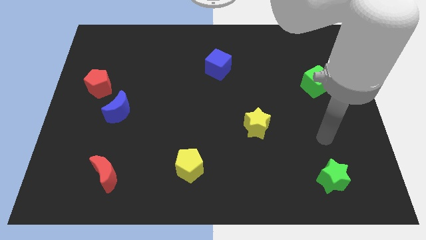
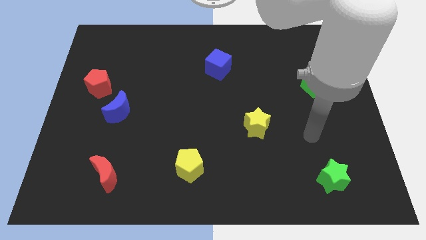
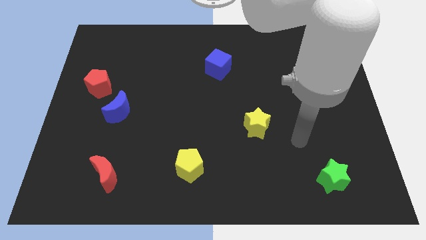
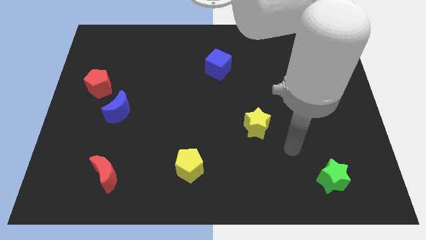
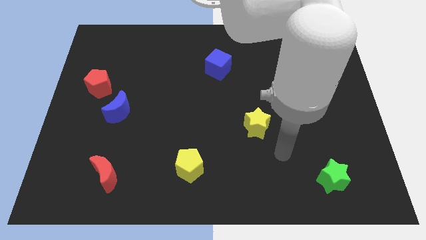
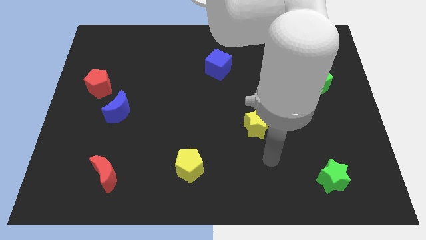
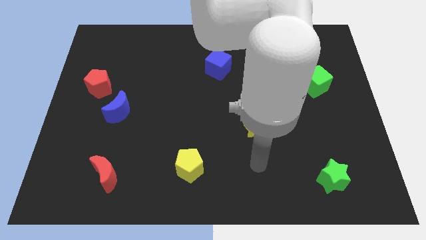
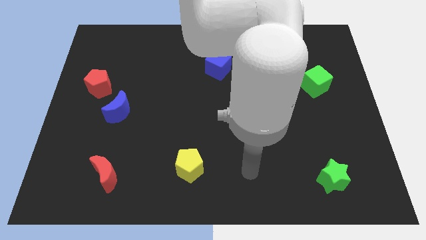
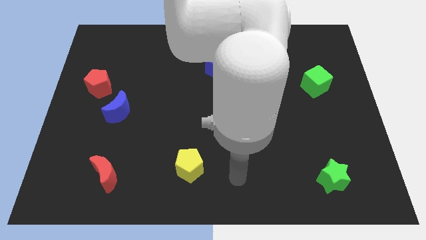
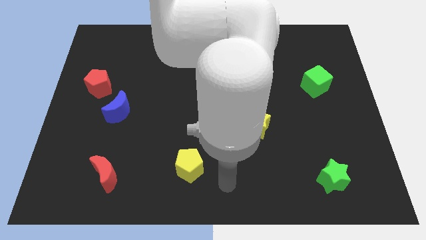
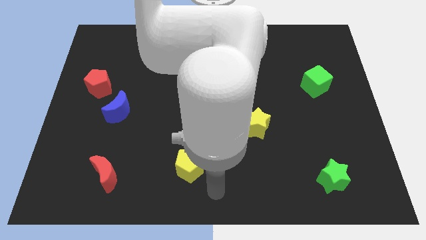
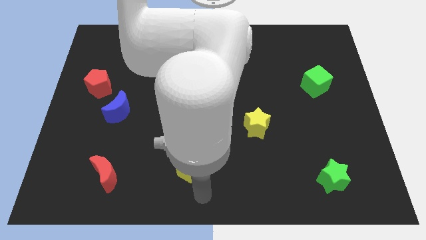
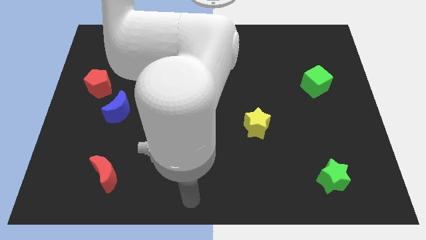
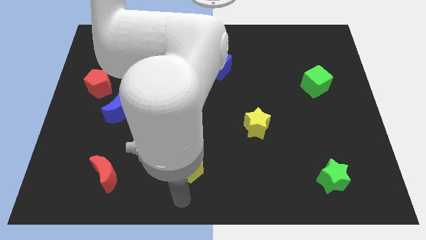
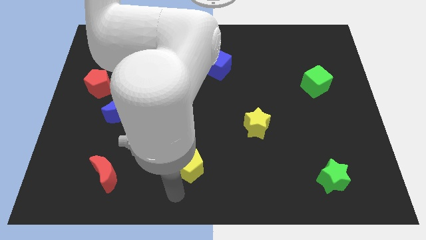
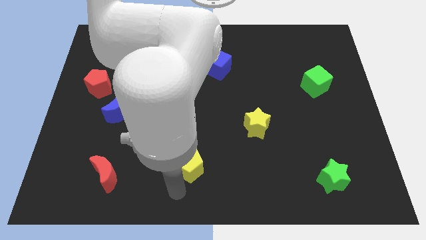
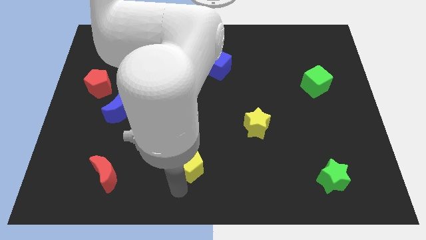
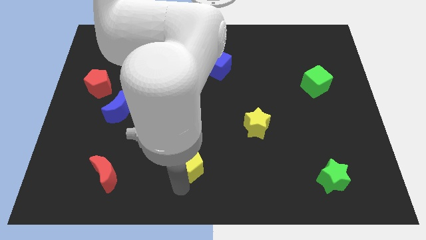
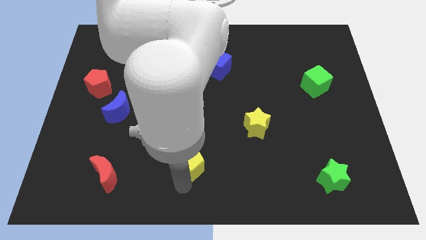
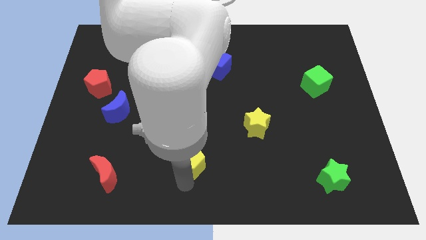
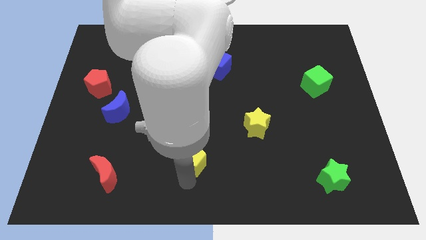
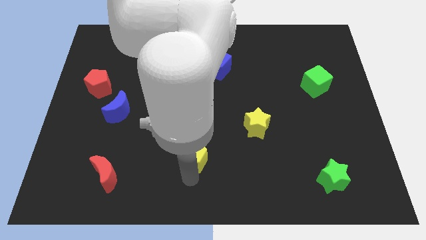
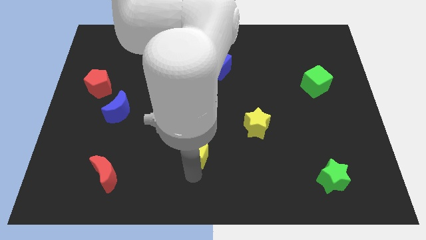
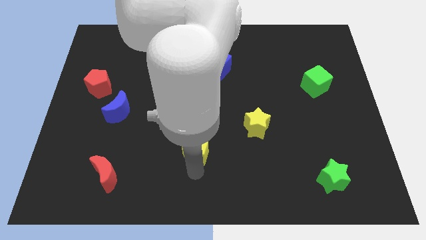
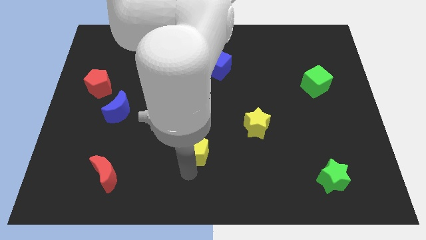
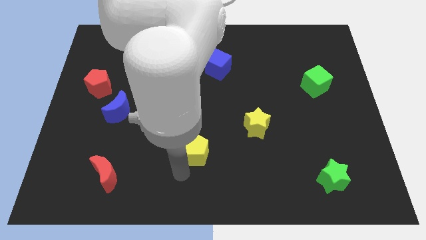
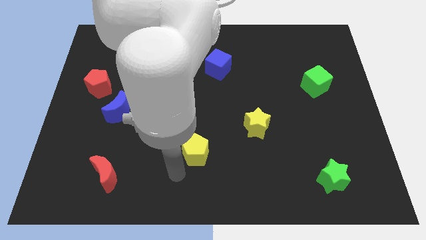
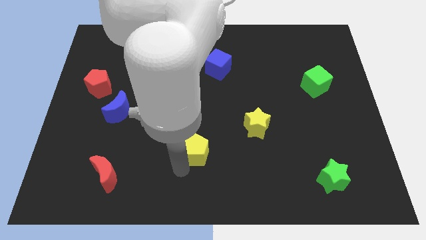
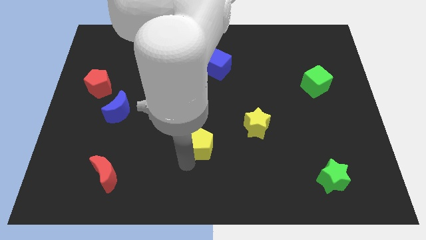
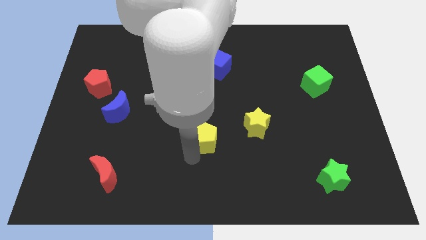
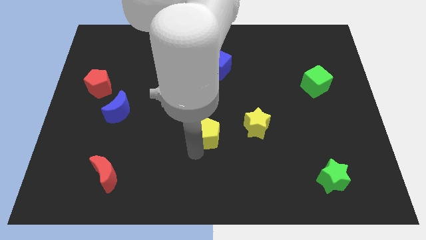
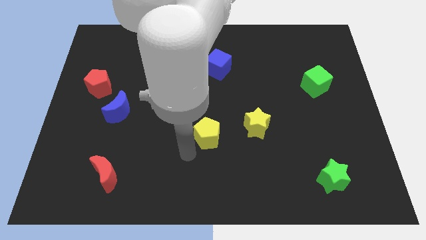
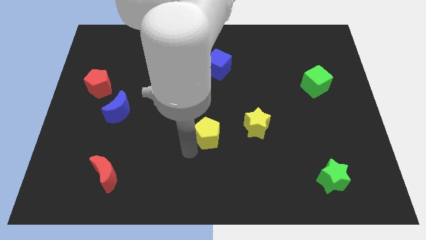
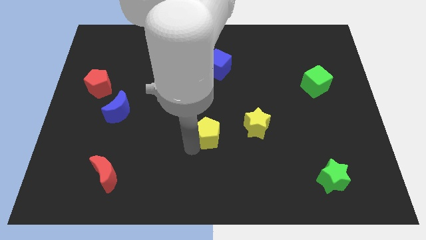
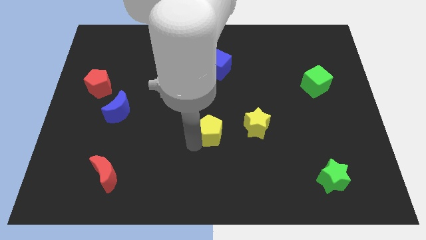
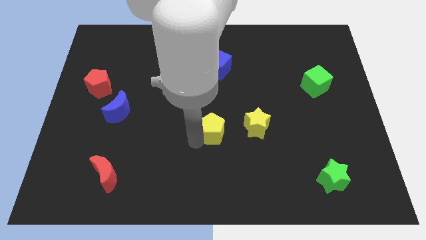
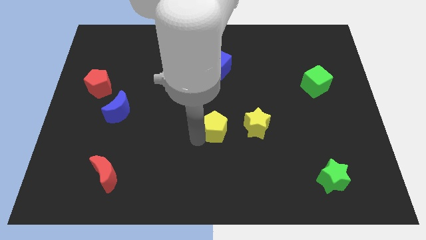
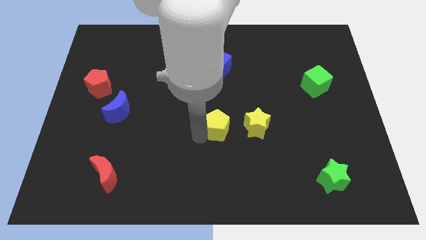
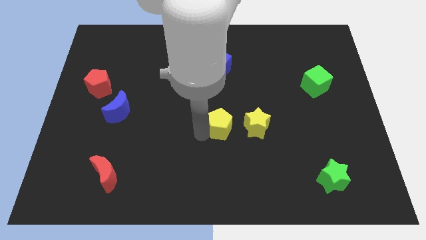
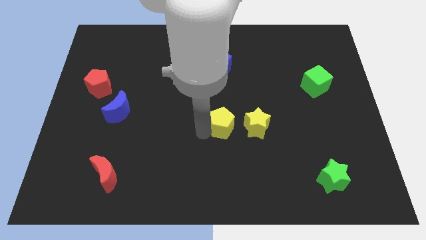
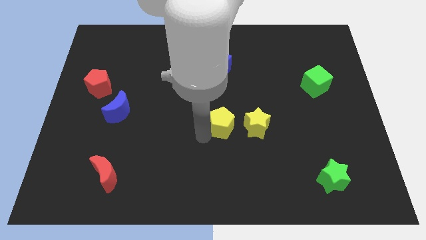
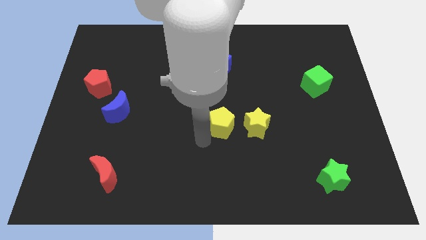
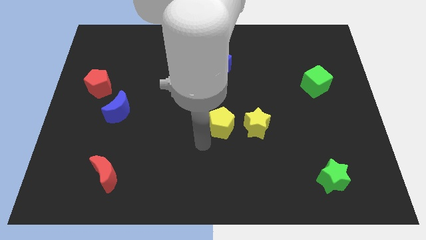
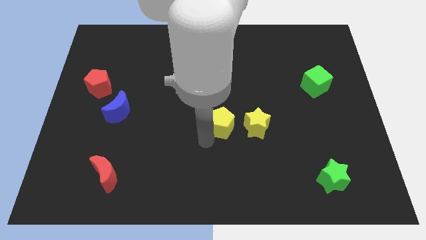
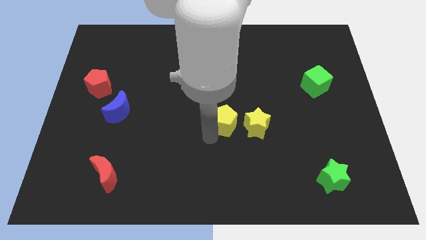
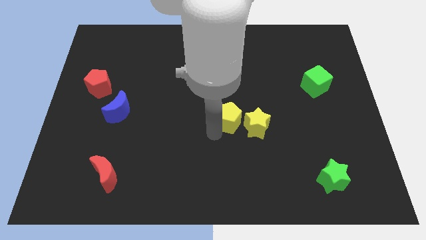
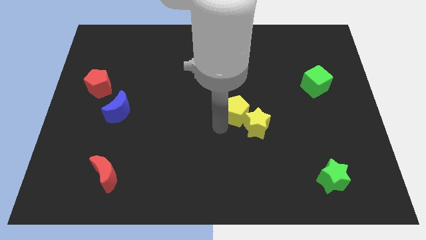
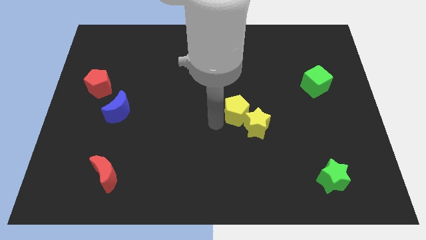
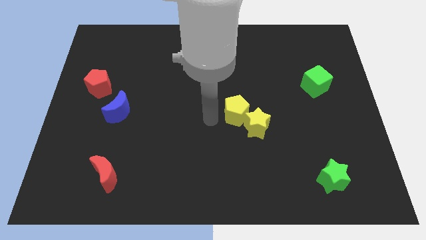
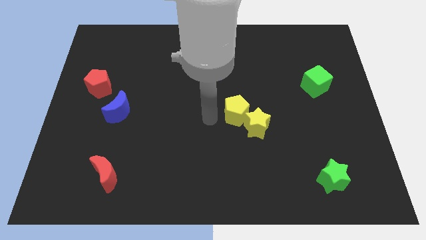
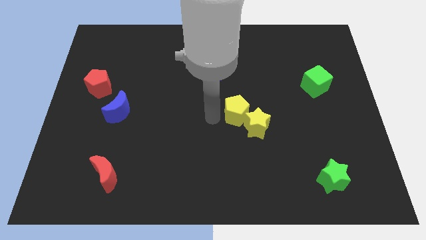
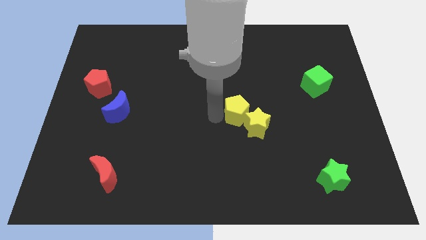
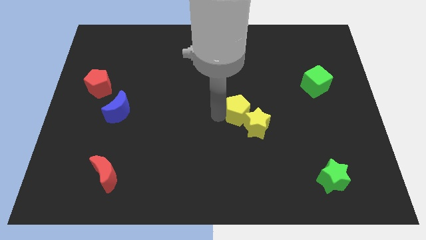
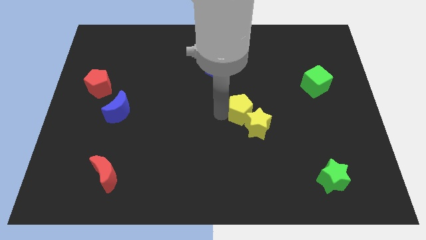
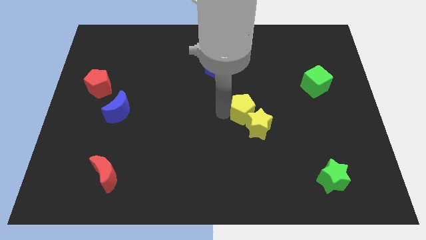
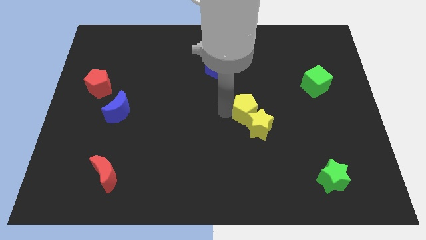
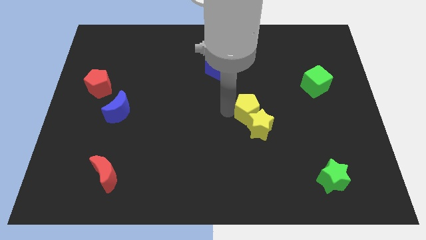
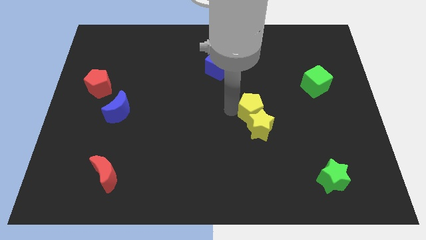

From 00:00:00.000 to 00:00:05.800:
slide the yellow pentagon upwards and to the right

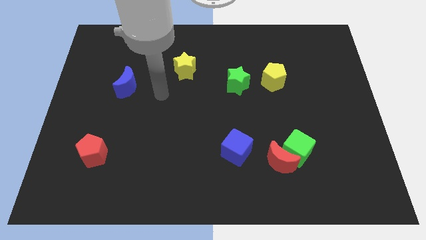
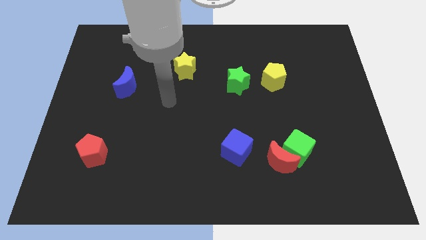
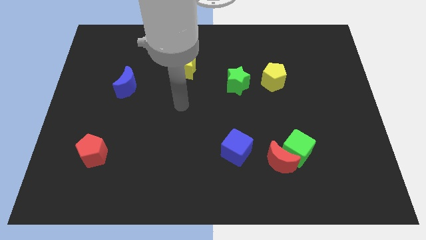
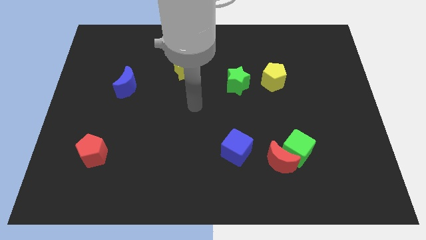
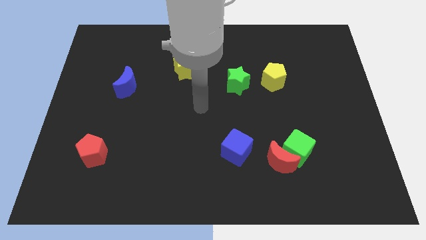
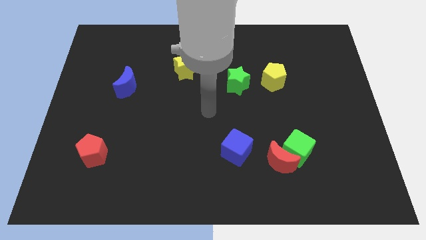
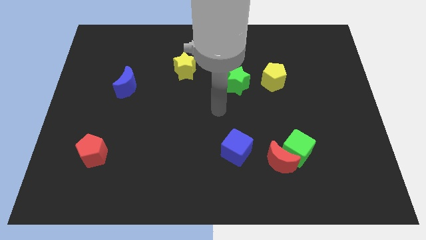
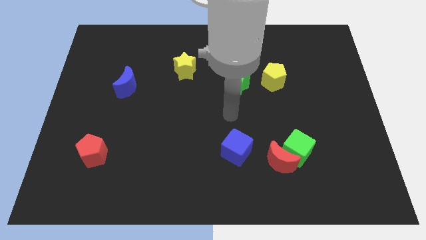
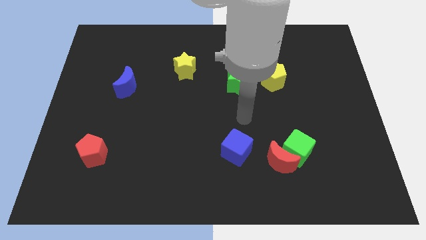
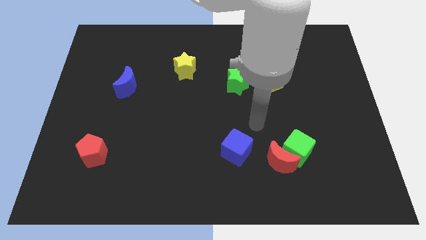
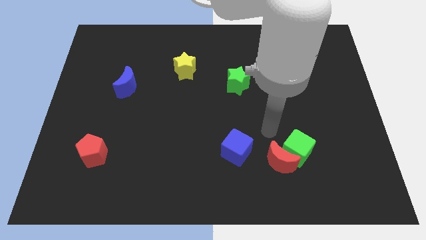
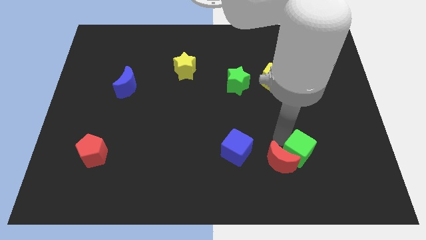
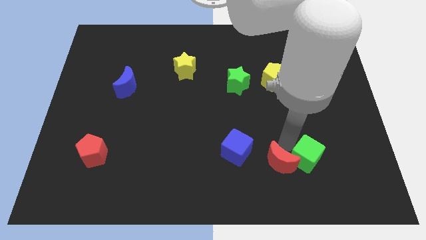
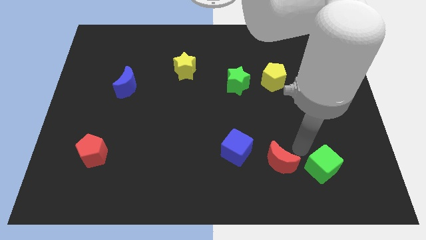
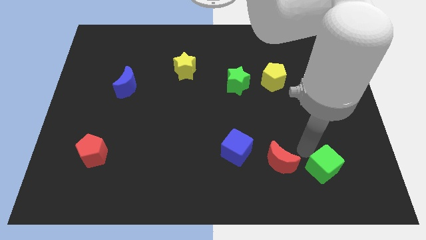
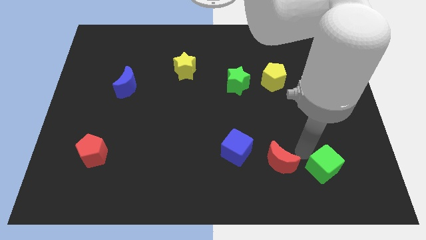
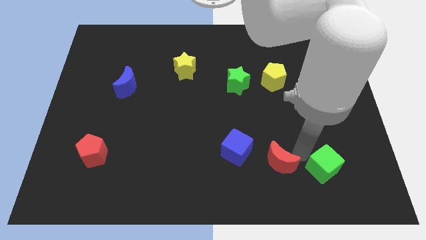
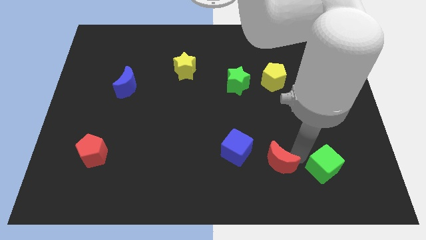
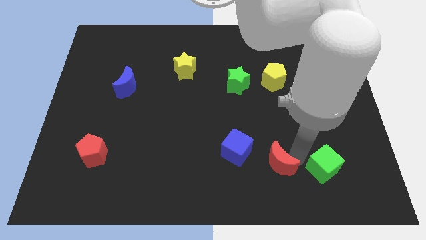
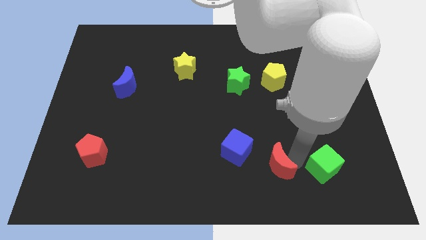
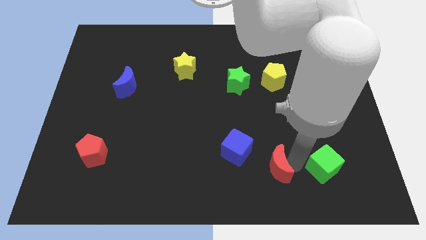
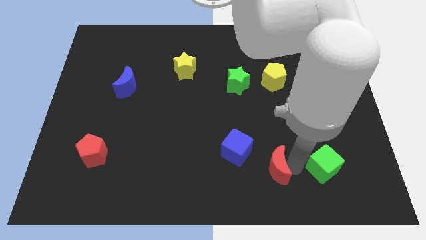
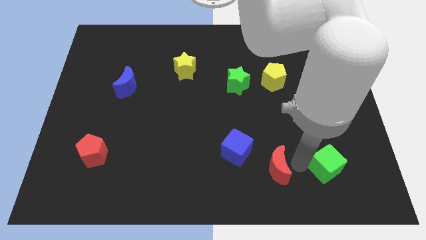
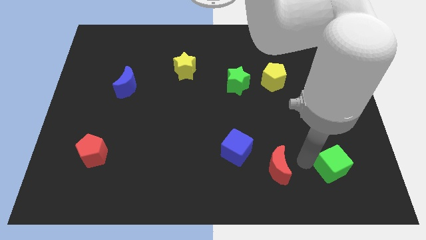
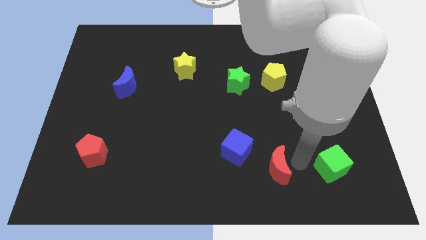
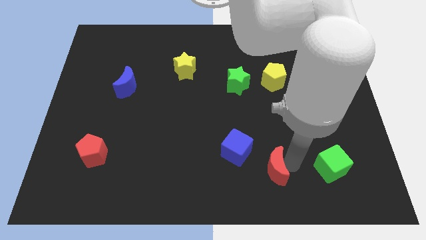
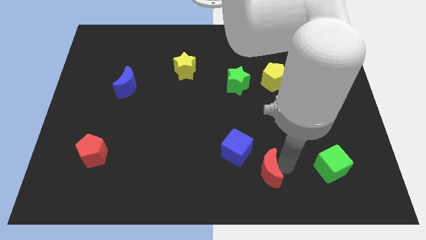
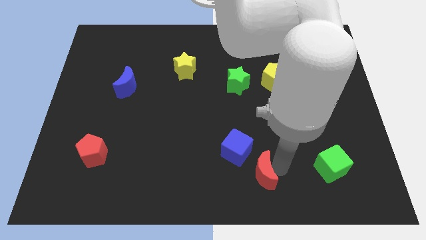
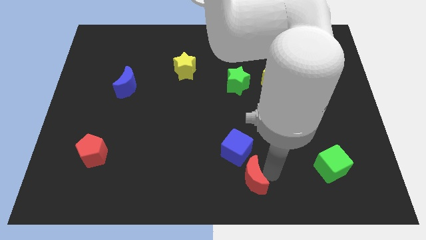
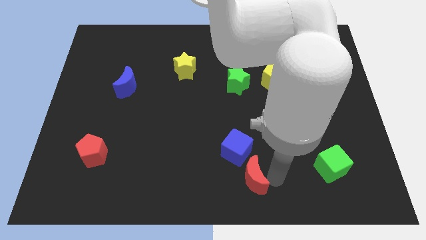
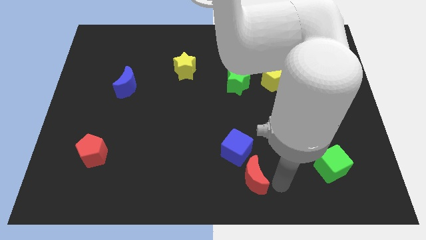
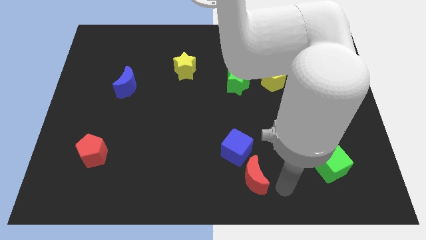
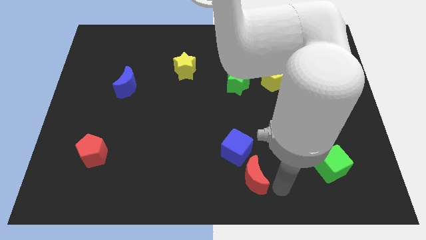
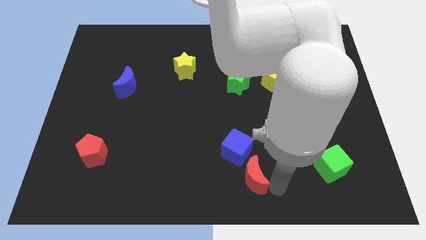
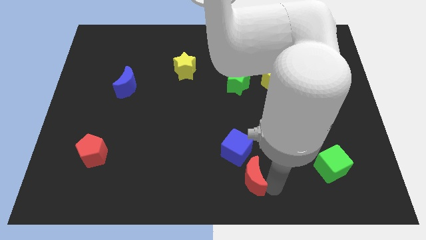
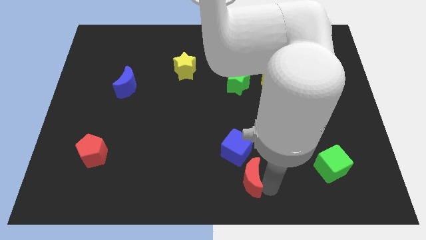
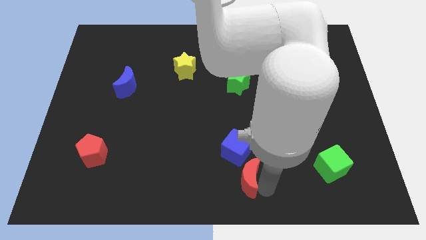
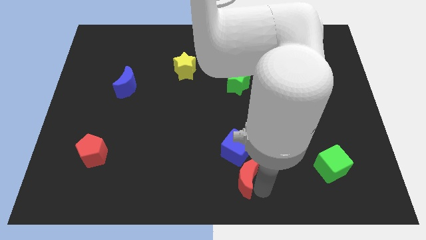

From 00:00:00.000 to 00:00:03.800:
move the red moon a little bit to the left
